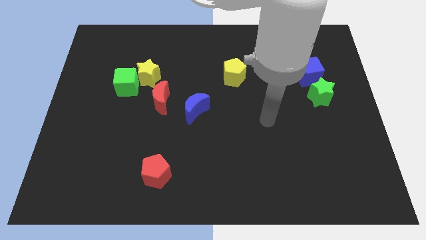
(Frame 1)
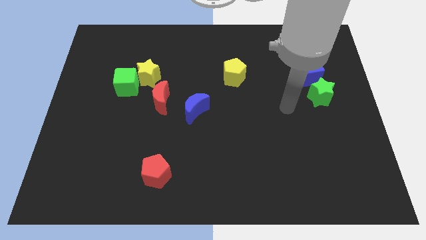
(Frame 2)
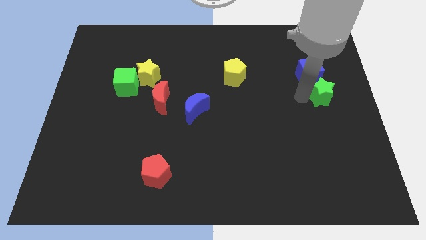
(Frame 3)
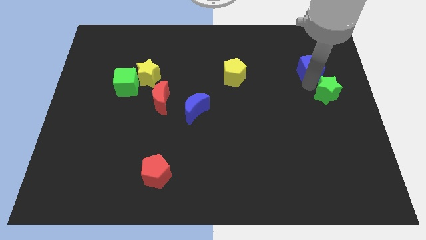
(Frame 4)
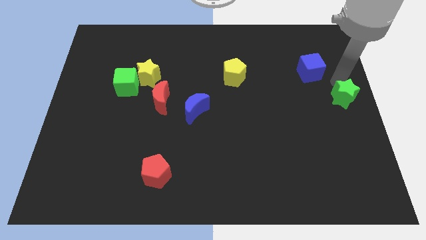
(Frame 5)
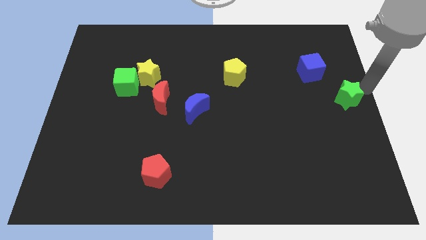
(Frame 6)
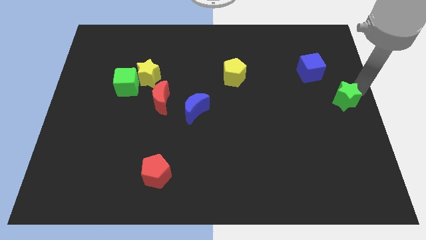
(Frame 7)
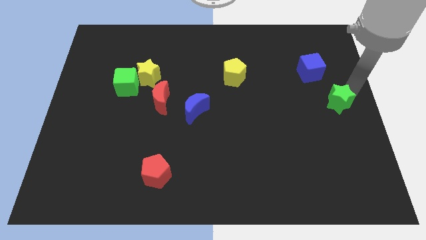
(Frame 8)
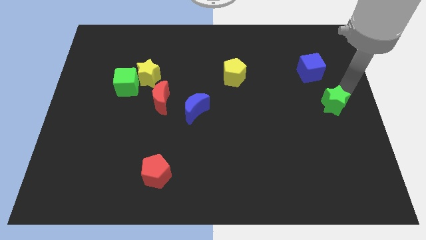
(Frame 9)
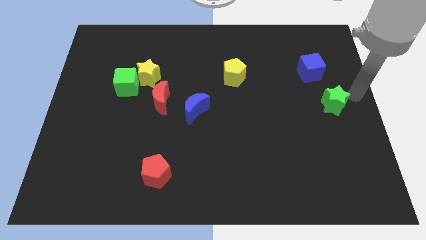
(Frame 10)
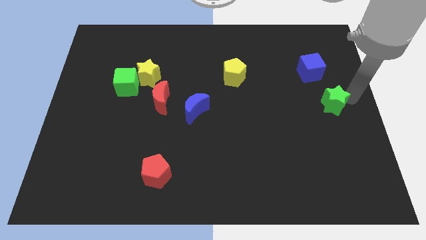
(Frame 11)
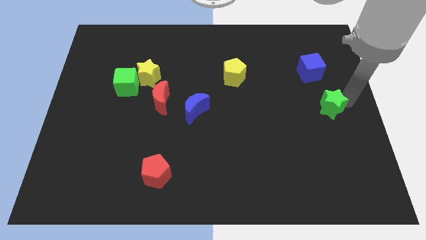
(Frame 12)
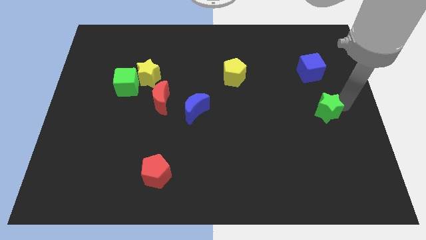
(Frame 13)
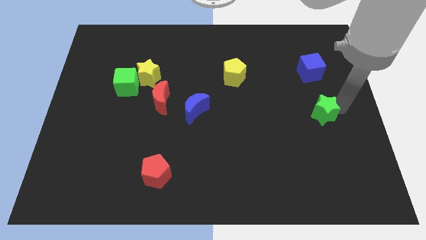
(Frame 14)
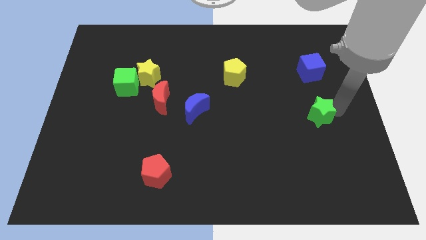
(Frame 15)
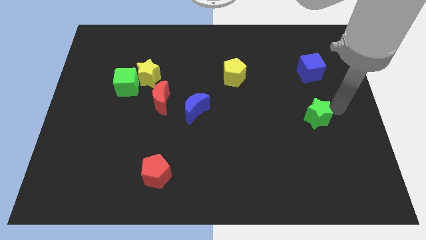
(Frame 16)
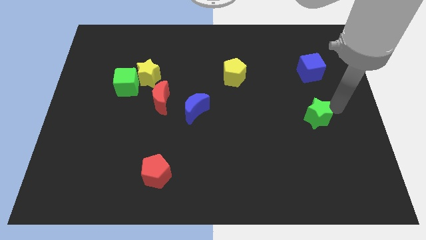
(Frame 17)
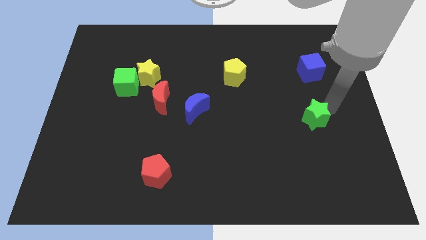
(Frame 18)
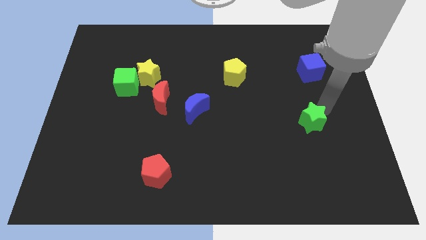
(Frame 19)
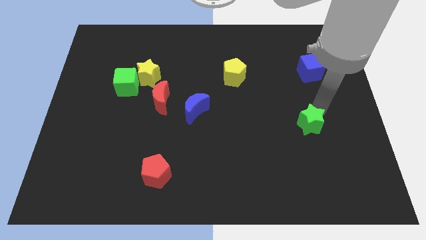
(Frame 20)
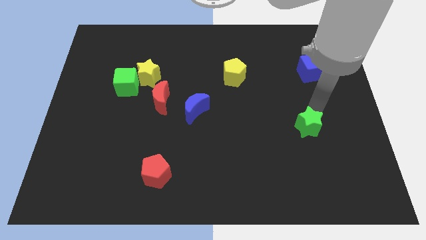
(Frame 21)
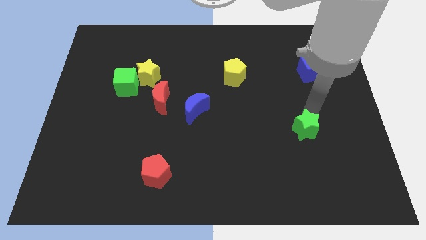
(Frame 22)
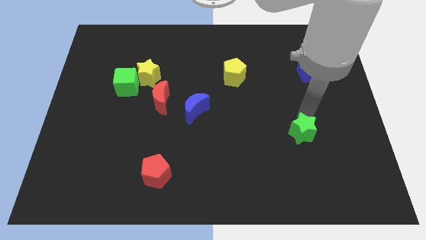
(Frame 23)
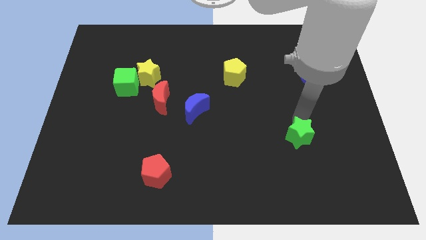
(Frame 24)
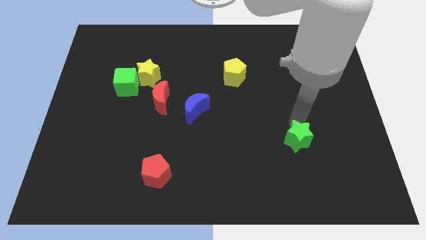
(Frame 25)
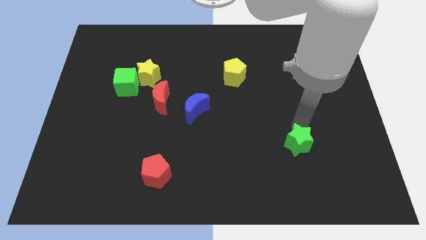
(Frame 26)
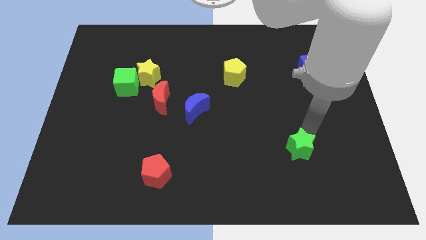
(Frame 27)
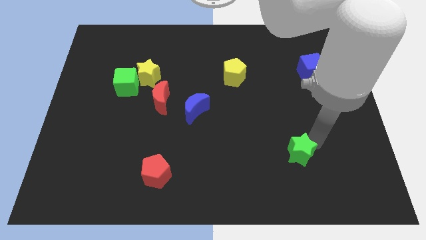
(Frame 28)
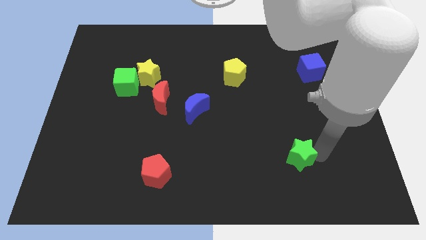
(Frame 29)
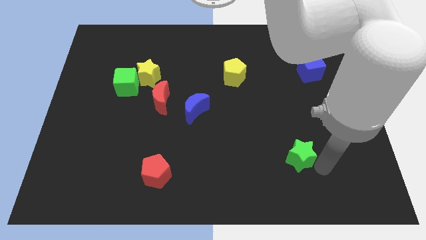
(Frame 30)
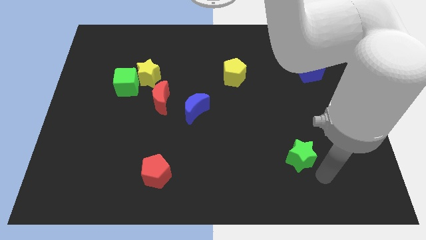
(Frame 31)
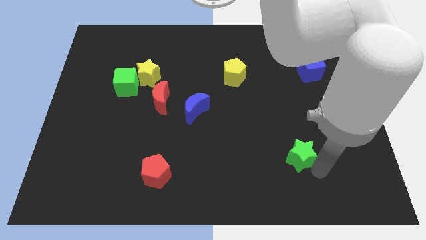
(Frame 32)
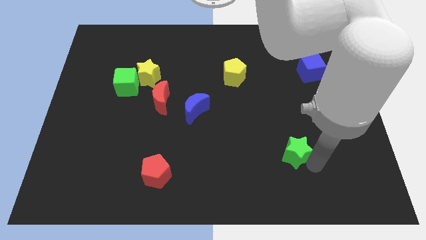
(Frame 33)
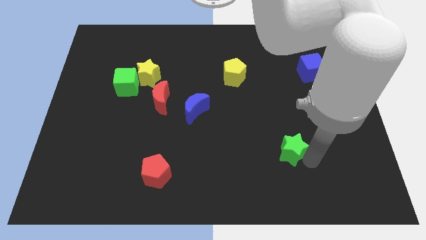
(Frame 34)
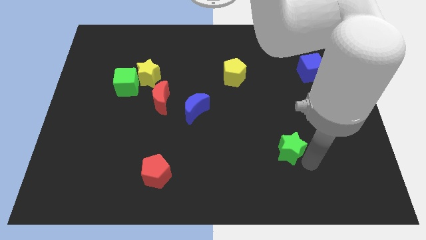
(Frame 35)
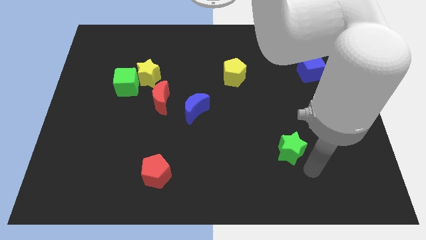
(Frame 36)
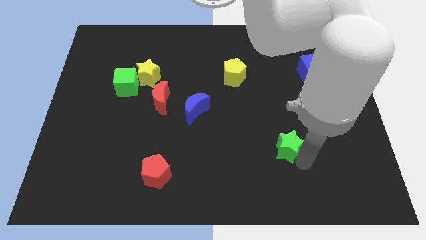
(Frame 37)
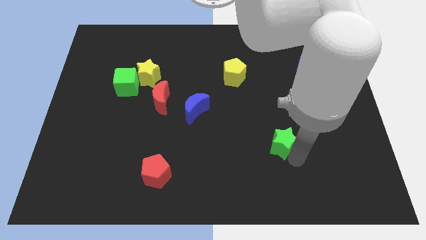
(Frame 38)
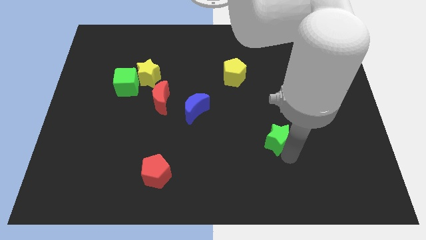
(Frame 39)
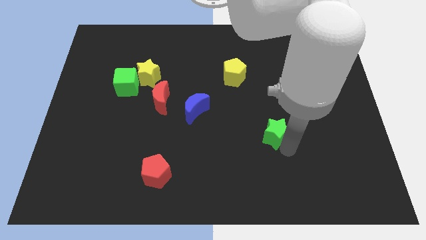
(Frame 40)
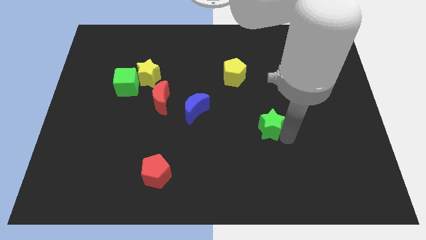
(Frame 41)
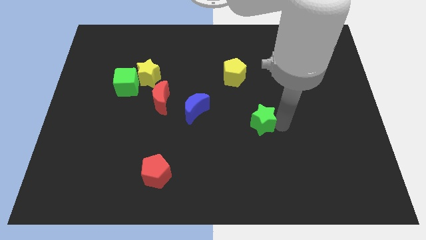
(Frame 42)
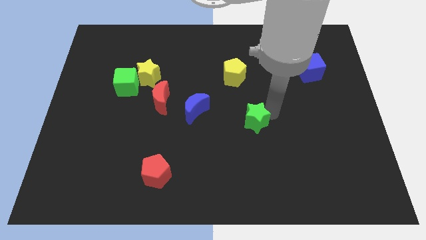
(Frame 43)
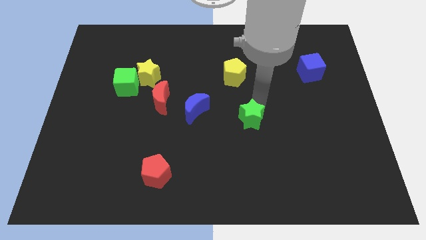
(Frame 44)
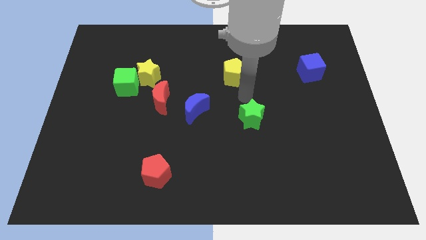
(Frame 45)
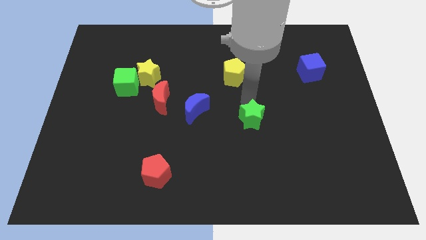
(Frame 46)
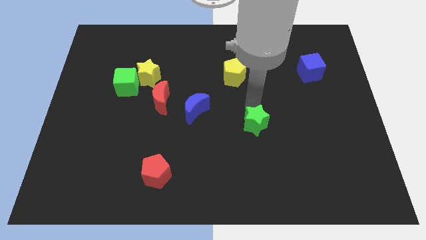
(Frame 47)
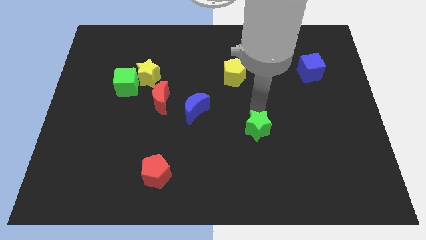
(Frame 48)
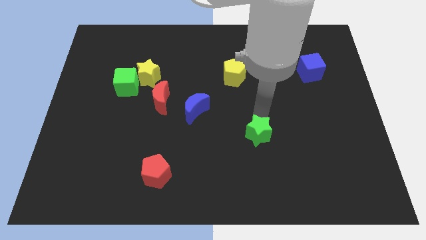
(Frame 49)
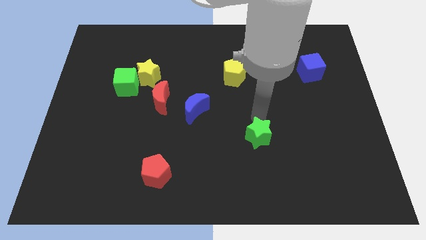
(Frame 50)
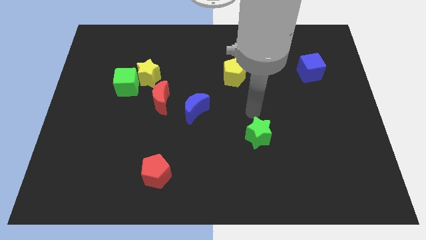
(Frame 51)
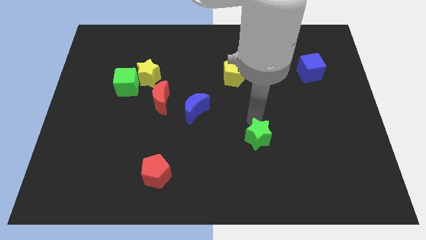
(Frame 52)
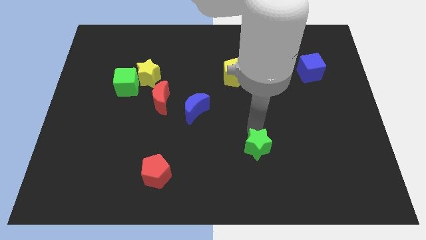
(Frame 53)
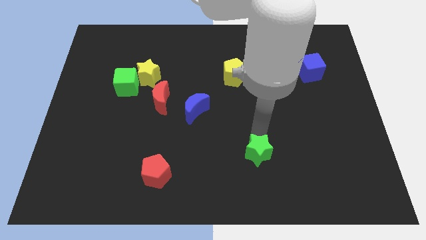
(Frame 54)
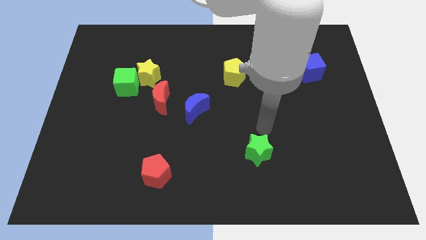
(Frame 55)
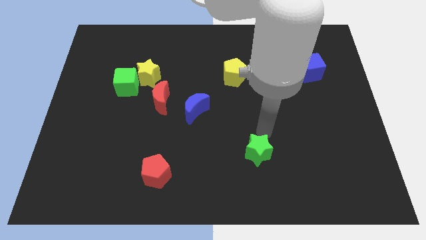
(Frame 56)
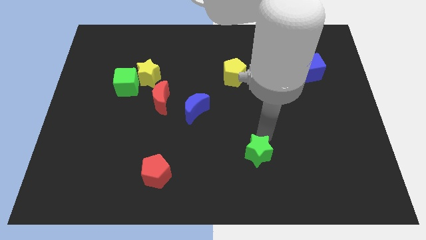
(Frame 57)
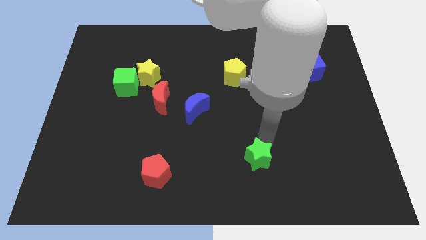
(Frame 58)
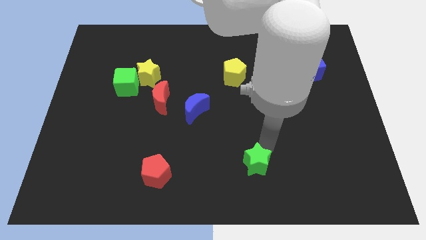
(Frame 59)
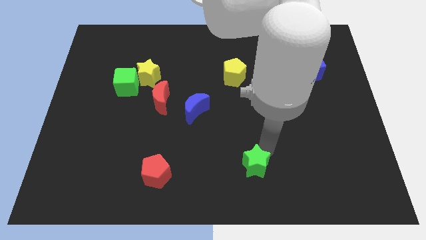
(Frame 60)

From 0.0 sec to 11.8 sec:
move the green star to the bottom
